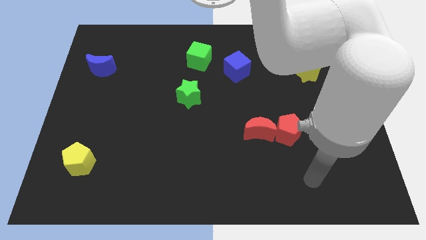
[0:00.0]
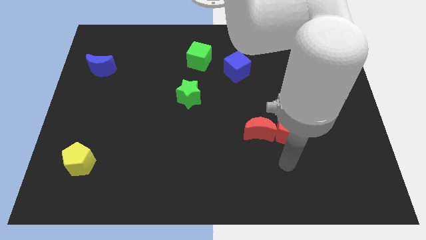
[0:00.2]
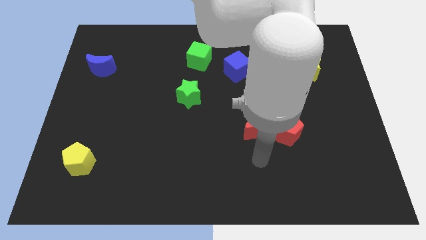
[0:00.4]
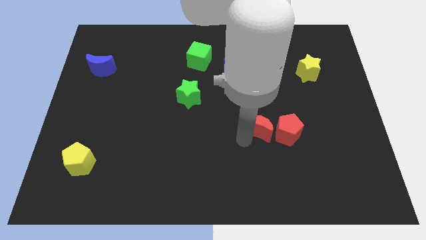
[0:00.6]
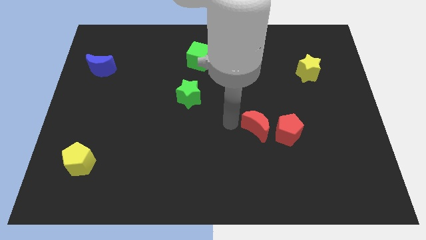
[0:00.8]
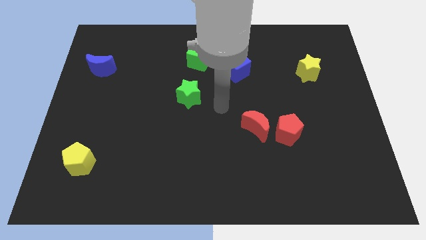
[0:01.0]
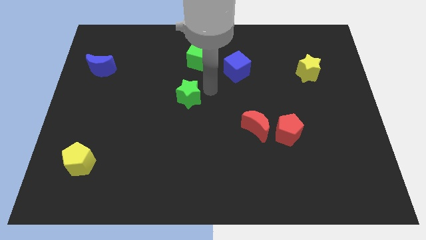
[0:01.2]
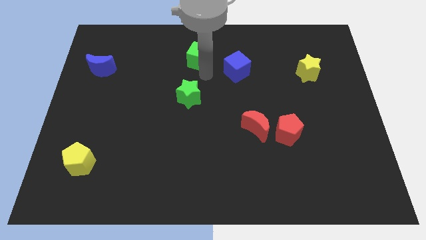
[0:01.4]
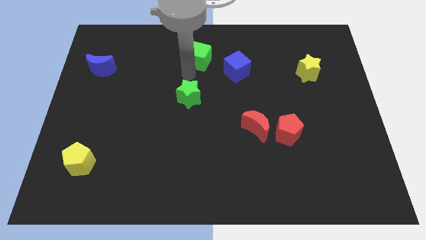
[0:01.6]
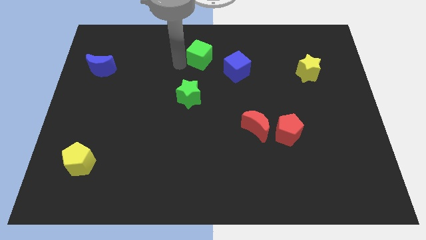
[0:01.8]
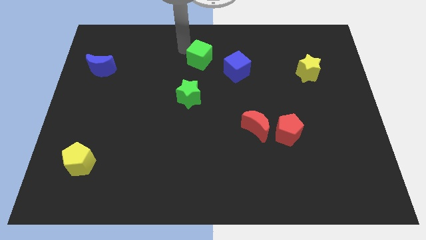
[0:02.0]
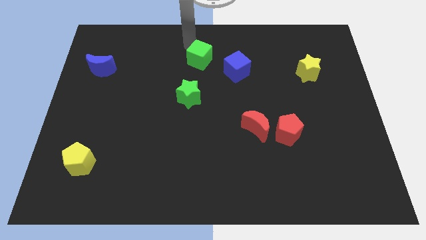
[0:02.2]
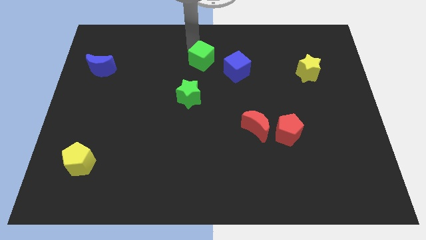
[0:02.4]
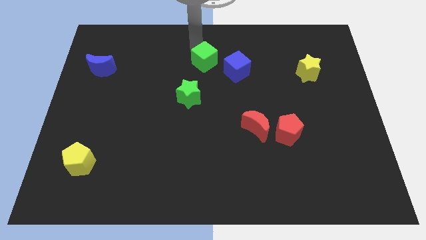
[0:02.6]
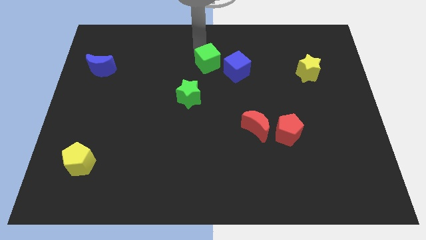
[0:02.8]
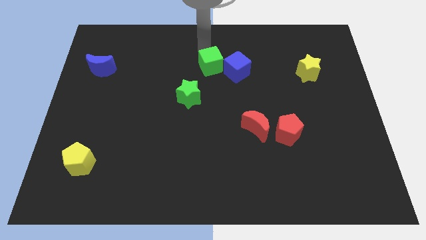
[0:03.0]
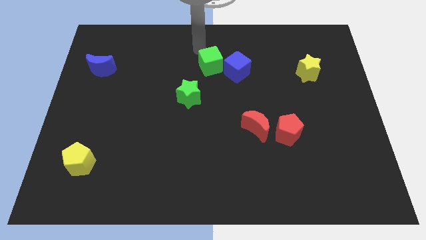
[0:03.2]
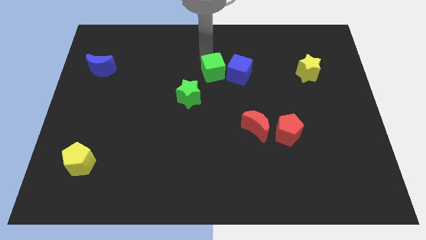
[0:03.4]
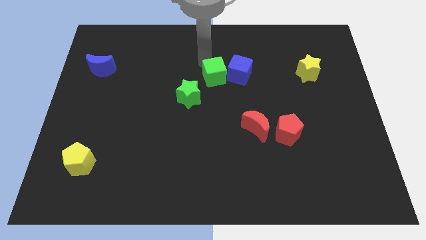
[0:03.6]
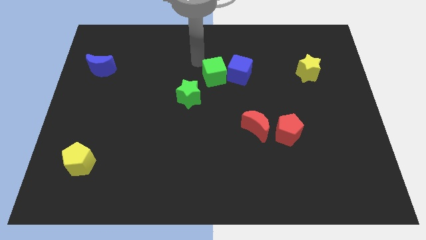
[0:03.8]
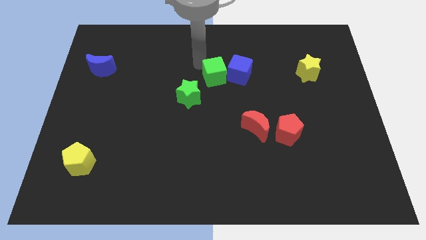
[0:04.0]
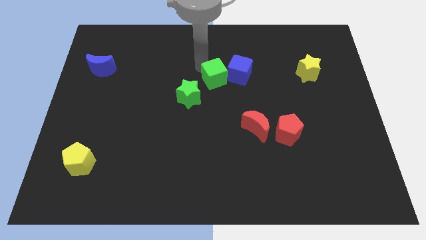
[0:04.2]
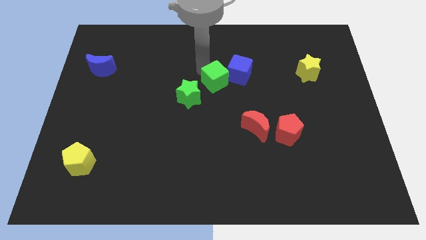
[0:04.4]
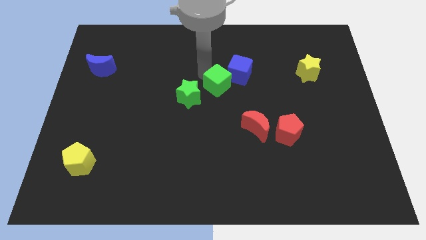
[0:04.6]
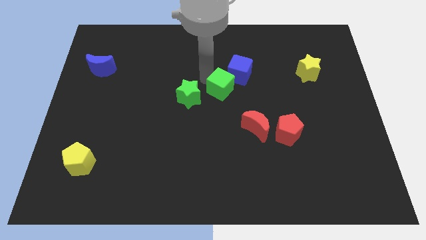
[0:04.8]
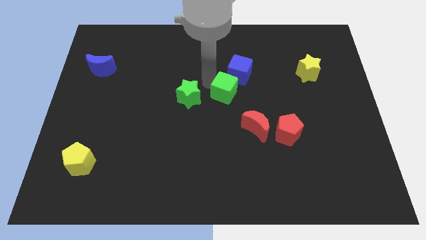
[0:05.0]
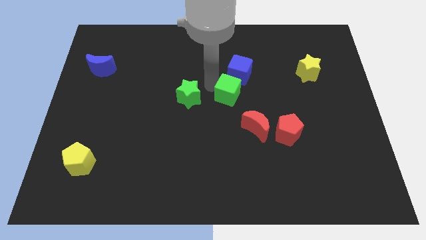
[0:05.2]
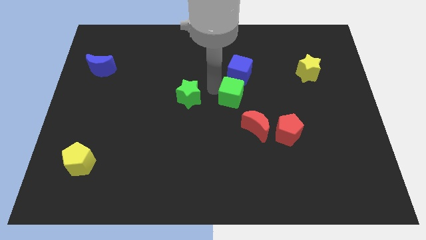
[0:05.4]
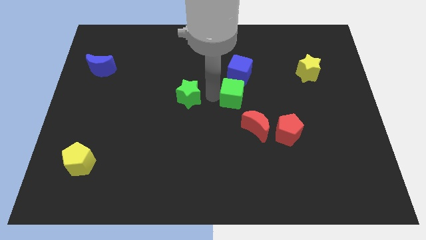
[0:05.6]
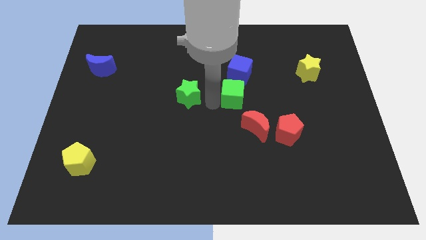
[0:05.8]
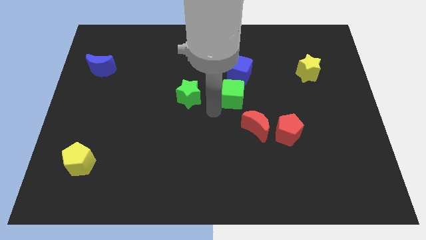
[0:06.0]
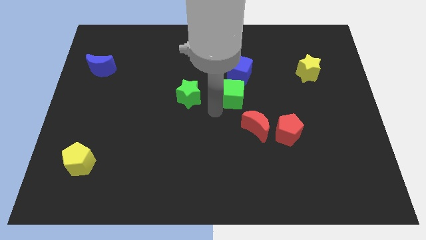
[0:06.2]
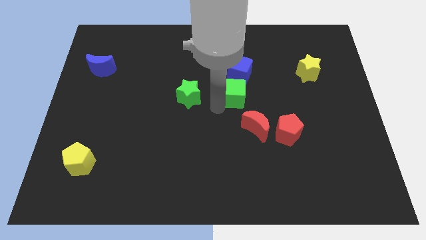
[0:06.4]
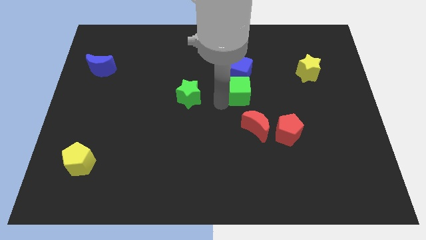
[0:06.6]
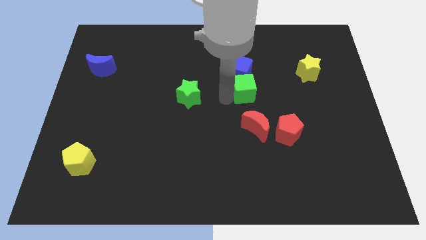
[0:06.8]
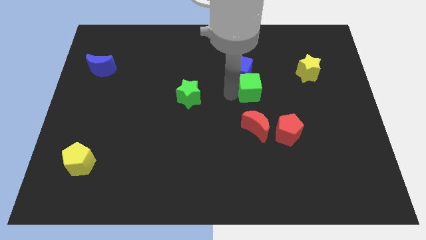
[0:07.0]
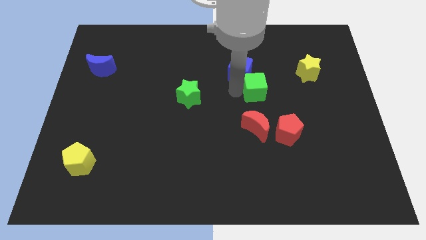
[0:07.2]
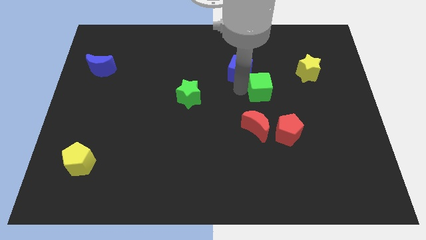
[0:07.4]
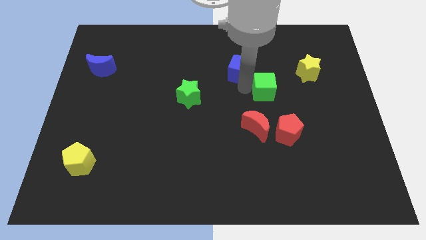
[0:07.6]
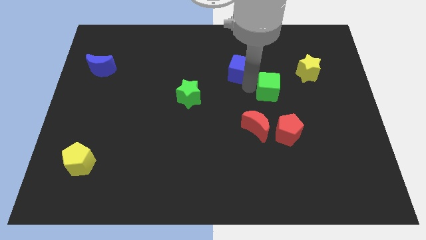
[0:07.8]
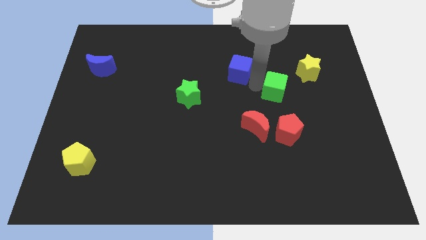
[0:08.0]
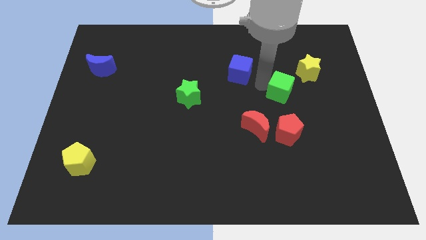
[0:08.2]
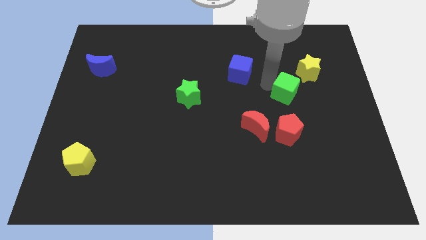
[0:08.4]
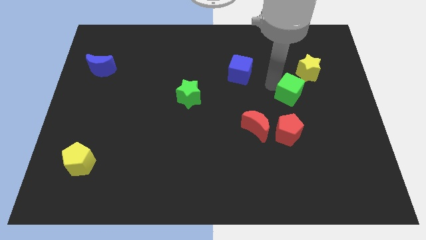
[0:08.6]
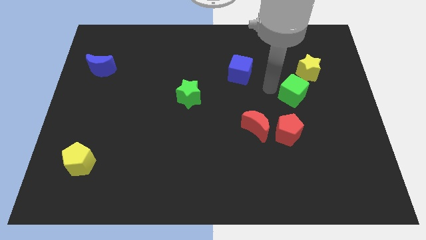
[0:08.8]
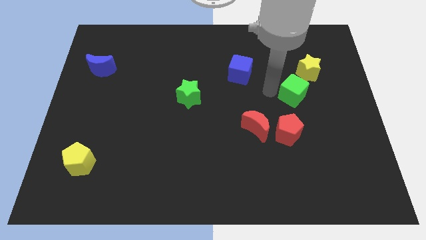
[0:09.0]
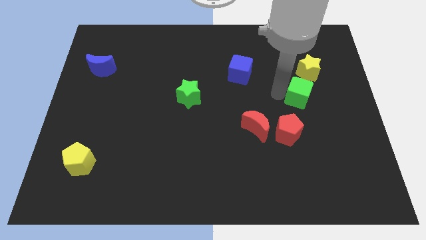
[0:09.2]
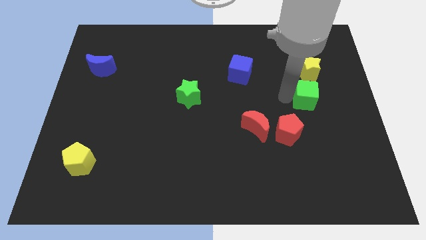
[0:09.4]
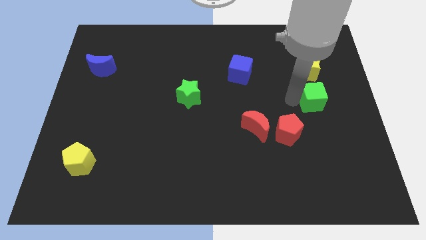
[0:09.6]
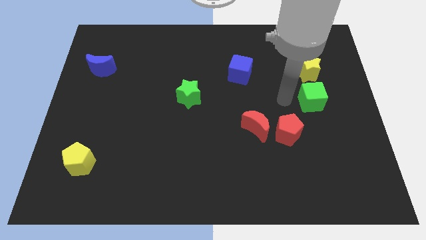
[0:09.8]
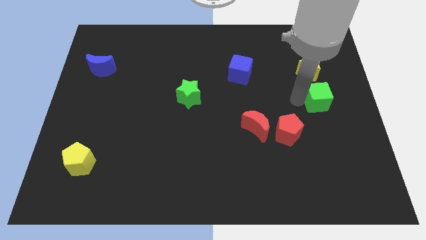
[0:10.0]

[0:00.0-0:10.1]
move the green cube to the right side of the board
